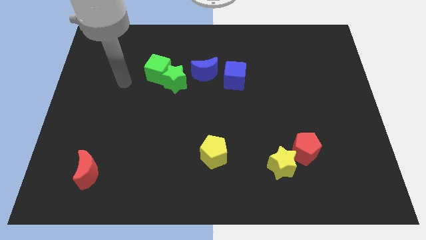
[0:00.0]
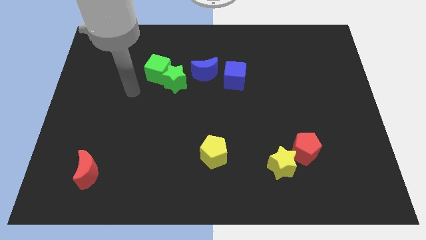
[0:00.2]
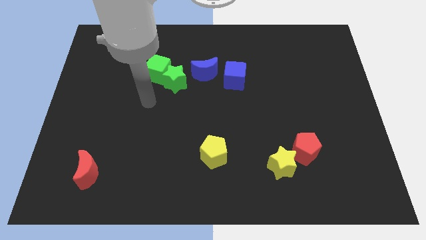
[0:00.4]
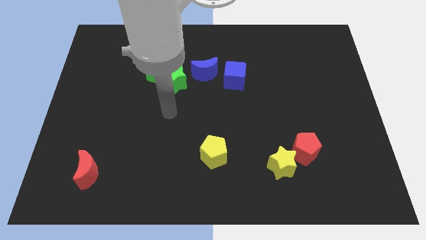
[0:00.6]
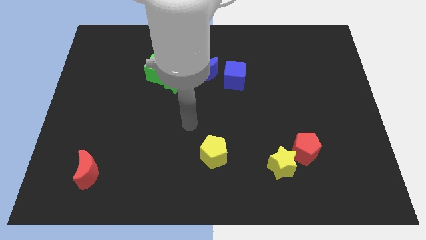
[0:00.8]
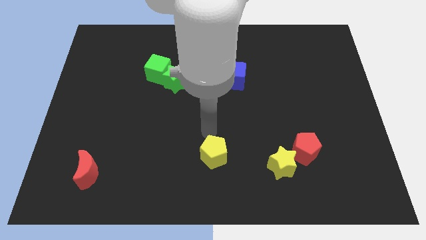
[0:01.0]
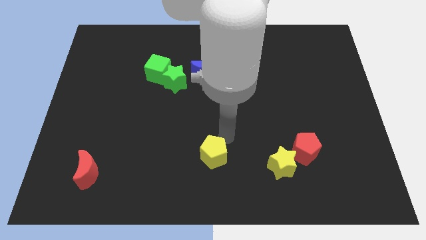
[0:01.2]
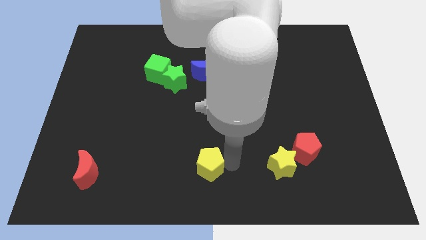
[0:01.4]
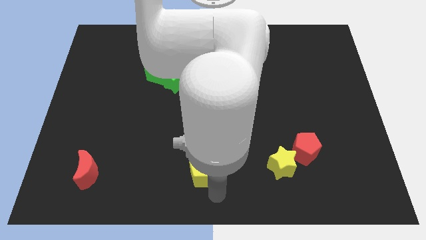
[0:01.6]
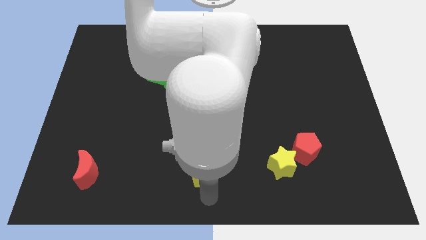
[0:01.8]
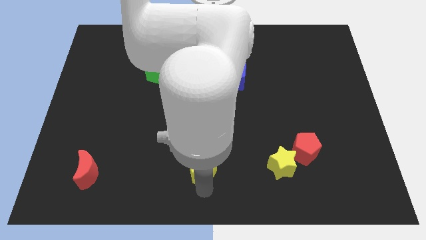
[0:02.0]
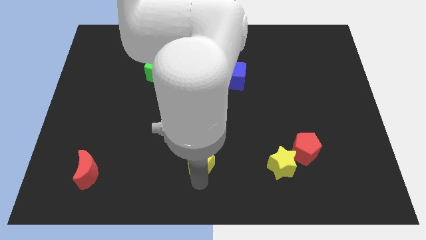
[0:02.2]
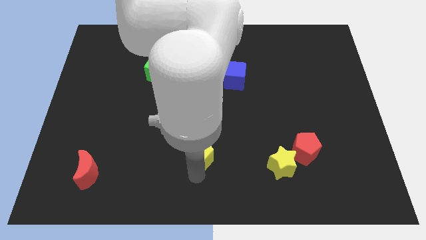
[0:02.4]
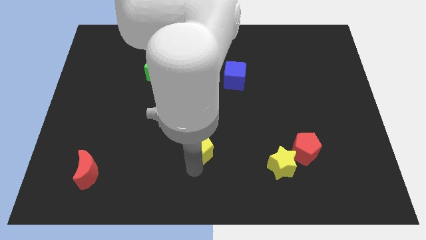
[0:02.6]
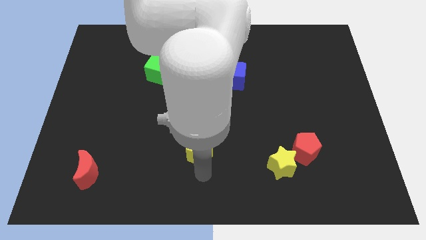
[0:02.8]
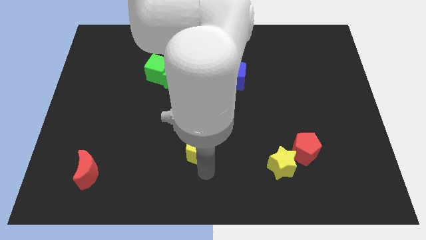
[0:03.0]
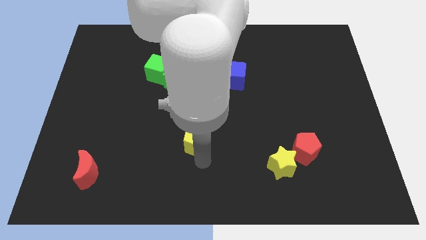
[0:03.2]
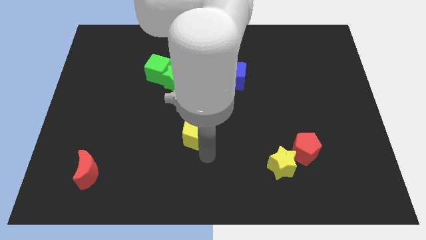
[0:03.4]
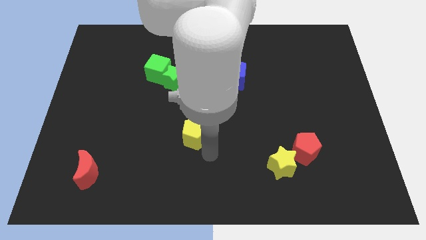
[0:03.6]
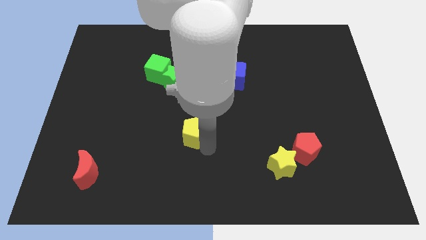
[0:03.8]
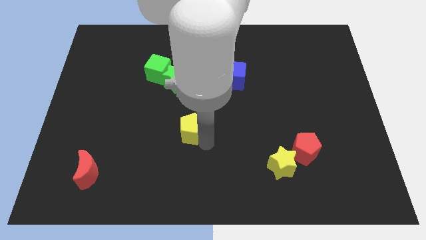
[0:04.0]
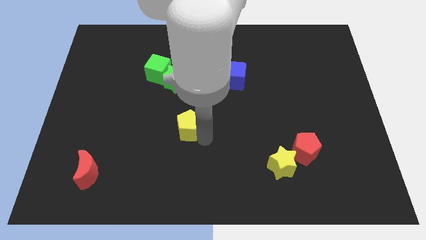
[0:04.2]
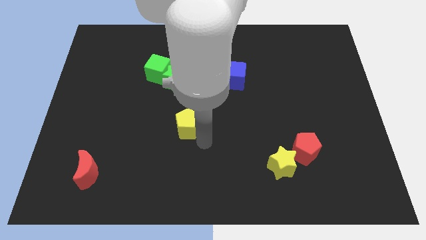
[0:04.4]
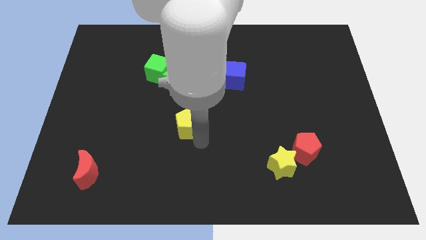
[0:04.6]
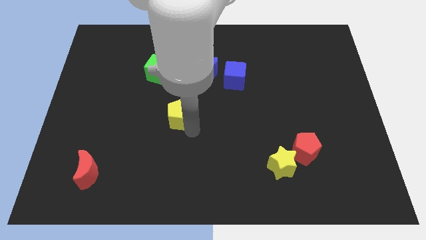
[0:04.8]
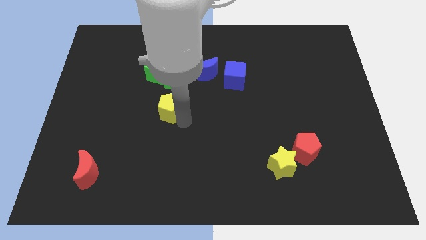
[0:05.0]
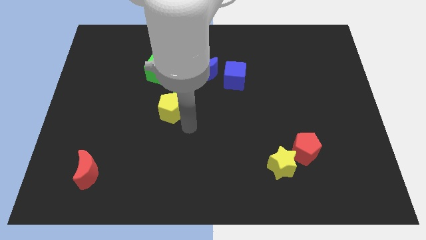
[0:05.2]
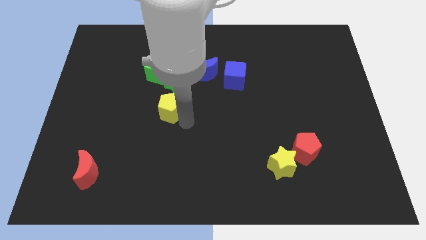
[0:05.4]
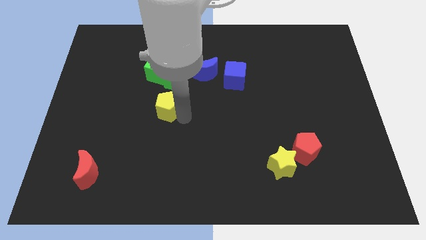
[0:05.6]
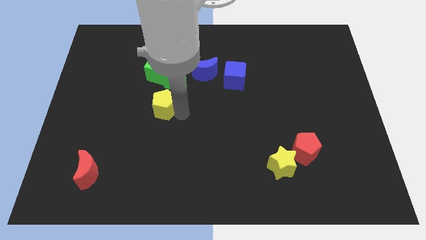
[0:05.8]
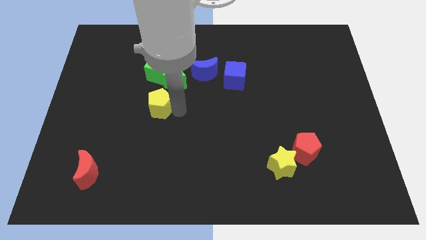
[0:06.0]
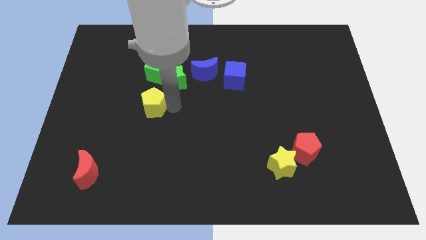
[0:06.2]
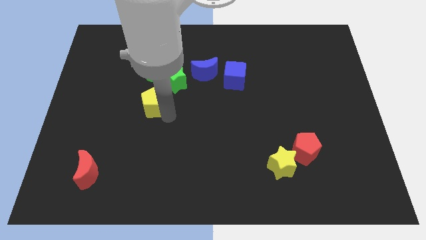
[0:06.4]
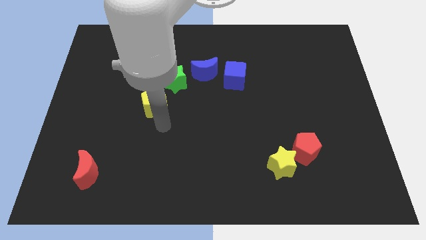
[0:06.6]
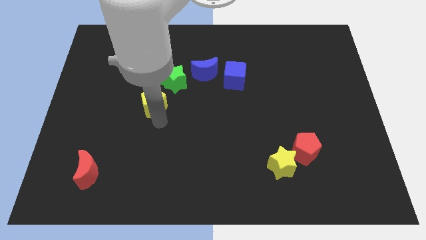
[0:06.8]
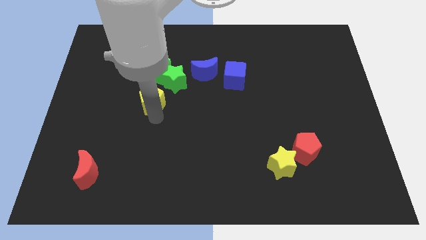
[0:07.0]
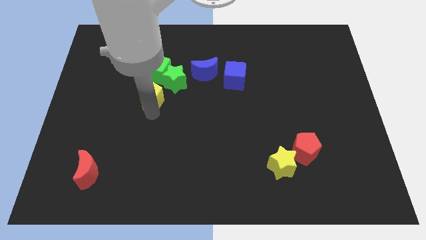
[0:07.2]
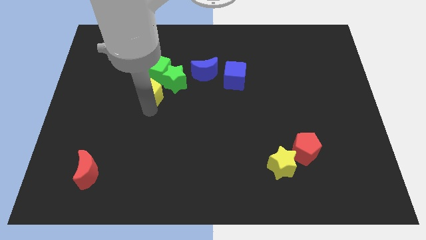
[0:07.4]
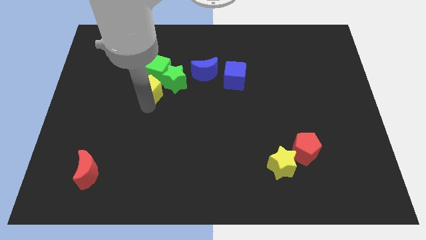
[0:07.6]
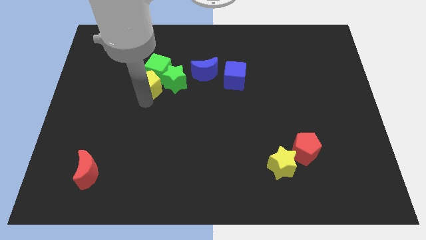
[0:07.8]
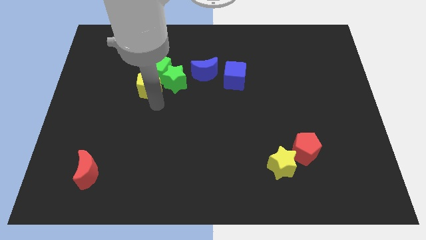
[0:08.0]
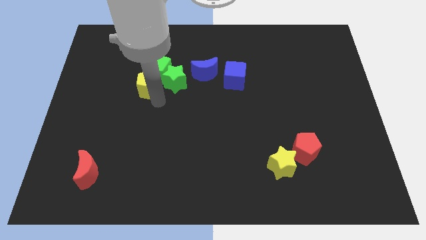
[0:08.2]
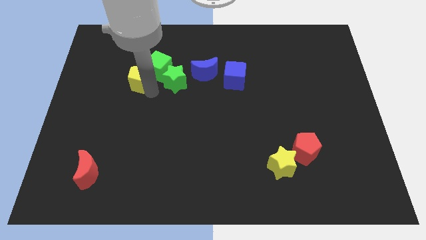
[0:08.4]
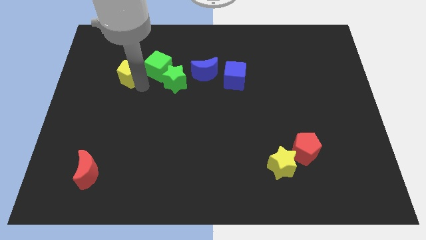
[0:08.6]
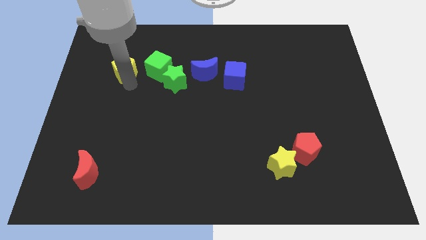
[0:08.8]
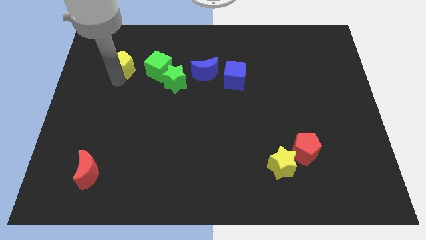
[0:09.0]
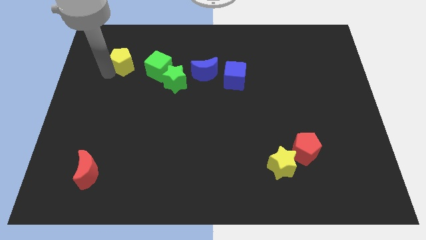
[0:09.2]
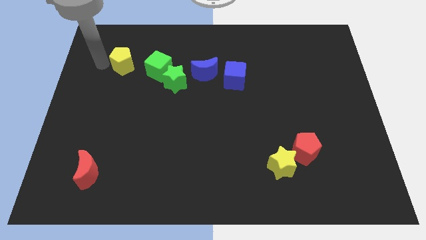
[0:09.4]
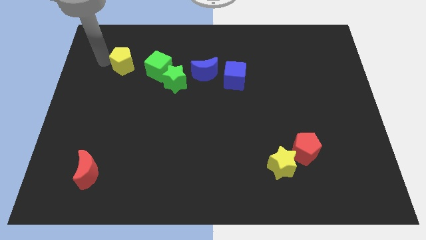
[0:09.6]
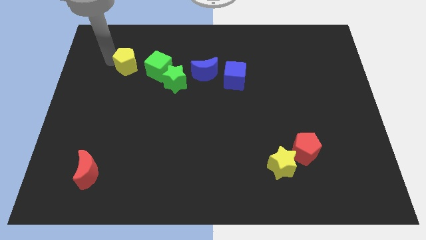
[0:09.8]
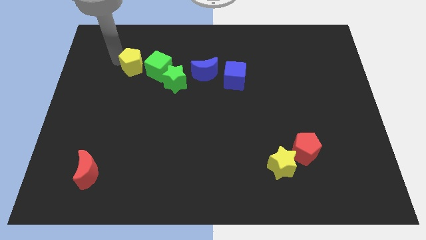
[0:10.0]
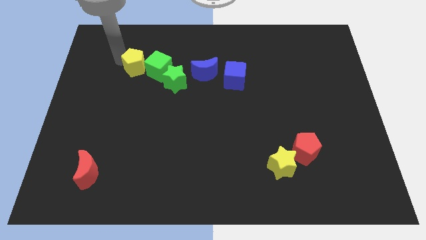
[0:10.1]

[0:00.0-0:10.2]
slide the yellow pentagon to the top left of the green star

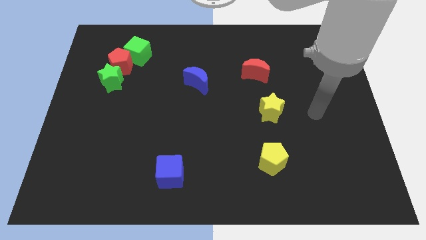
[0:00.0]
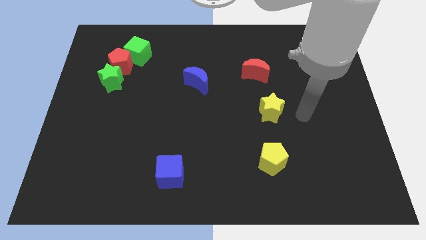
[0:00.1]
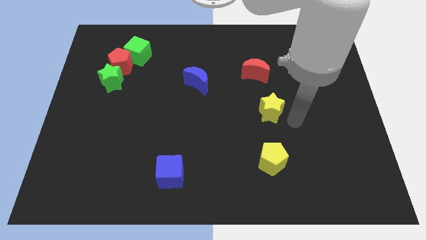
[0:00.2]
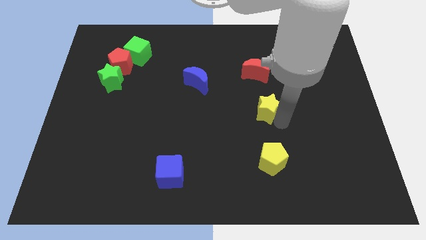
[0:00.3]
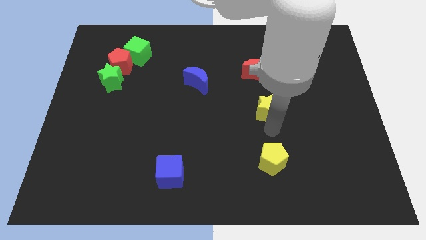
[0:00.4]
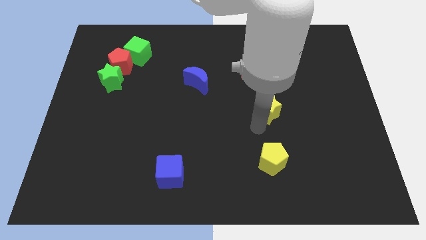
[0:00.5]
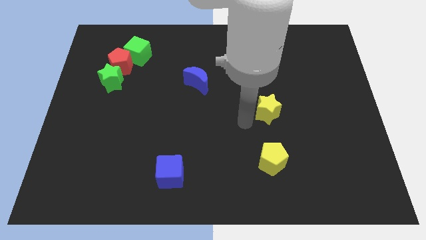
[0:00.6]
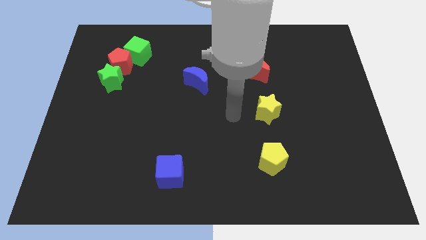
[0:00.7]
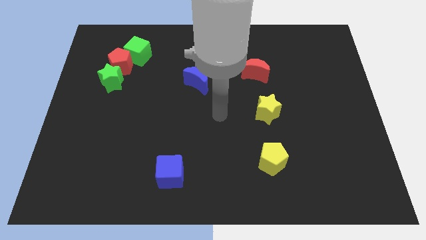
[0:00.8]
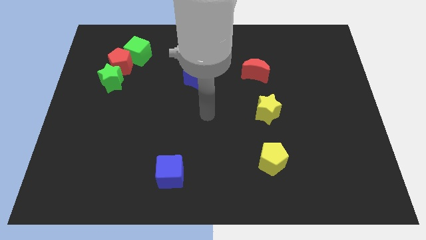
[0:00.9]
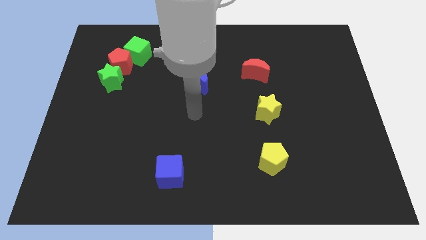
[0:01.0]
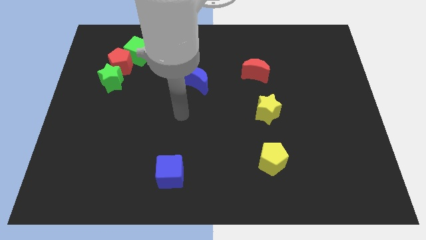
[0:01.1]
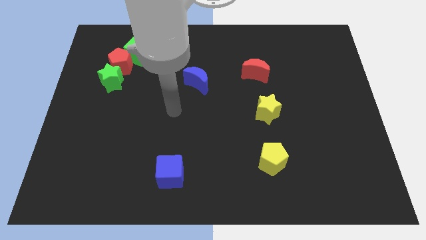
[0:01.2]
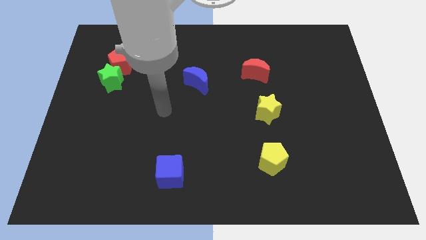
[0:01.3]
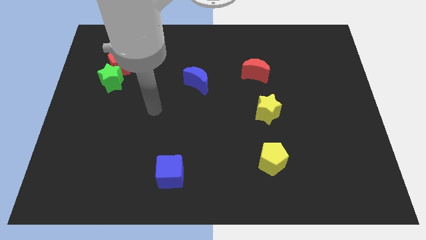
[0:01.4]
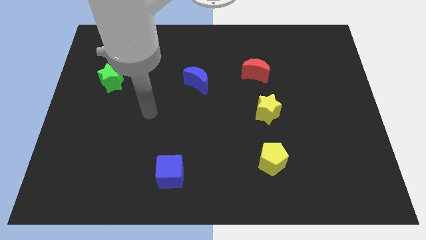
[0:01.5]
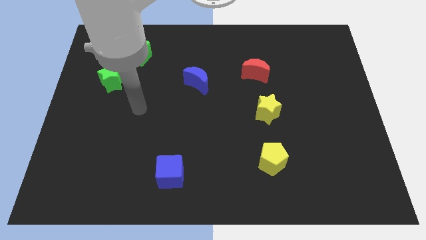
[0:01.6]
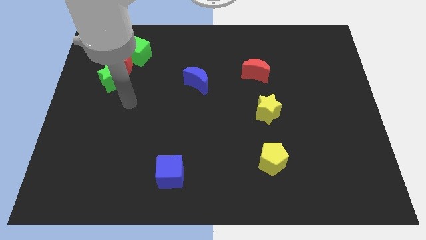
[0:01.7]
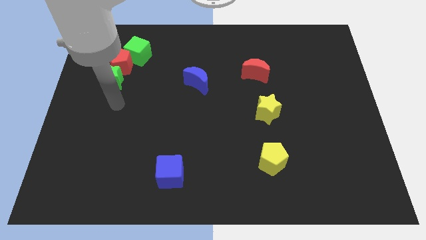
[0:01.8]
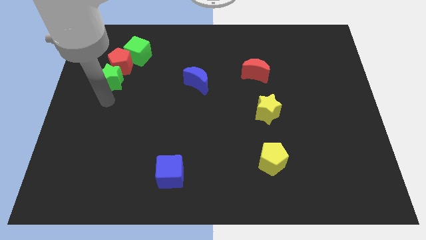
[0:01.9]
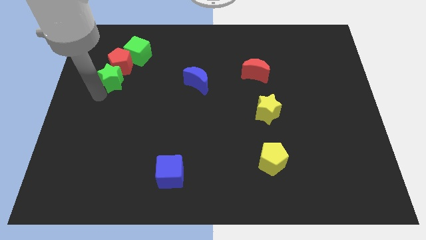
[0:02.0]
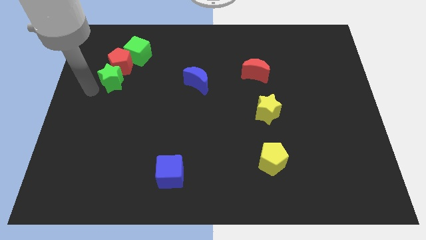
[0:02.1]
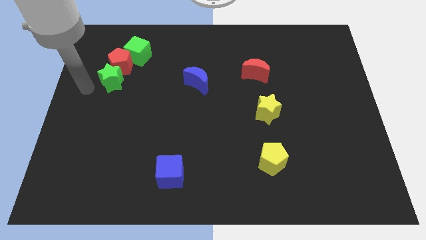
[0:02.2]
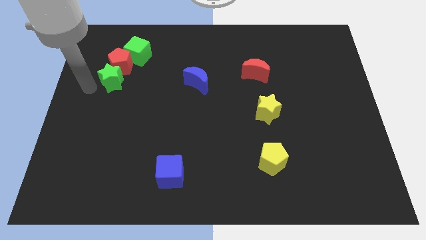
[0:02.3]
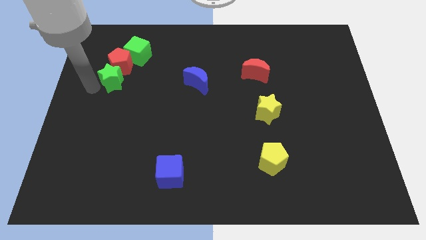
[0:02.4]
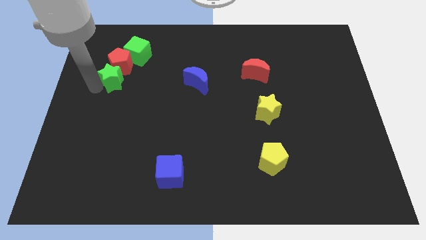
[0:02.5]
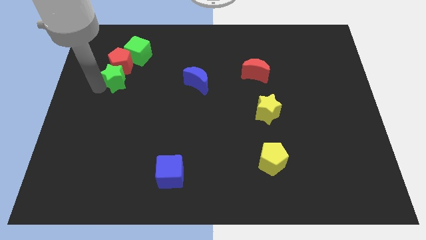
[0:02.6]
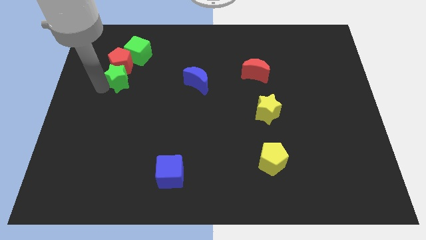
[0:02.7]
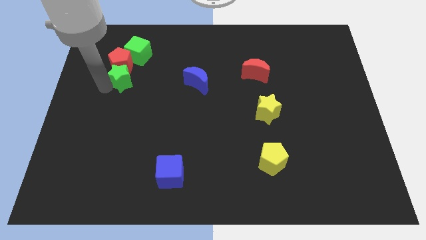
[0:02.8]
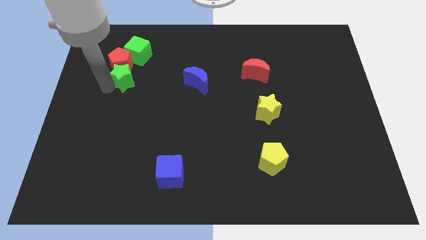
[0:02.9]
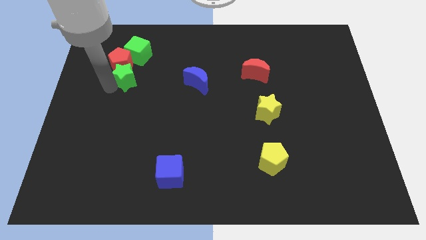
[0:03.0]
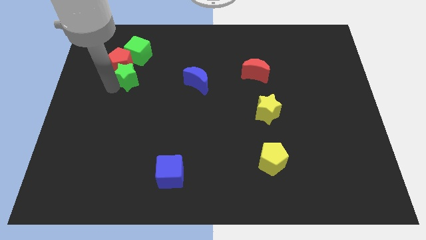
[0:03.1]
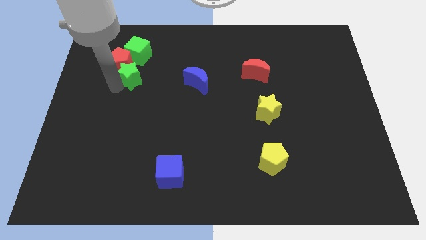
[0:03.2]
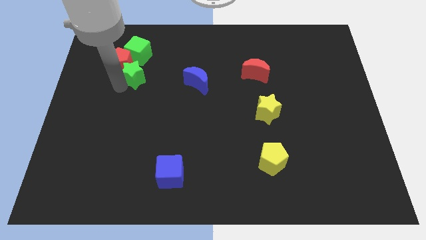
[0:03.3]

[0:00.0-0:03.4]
slide the green star to the right side of the red pentagon
